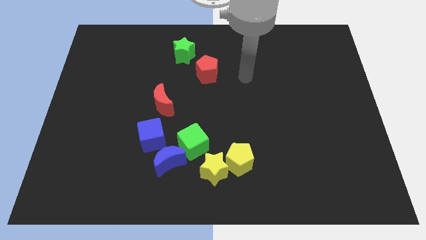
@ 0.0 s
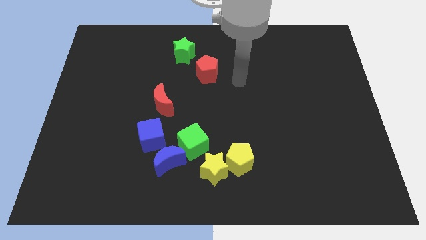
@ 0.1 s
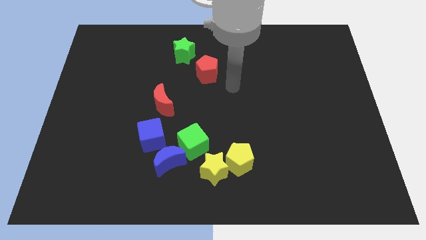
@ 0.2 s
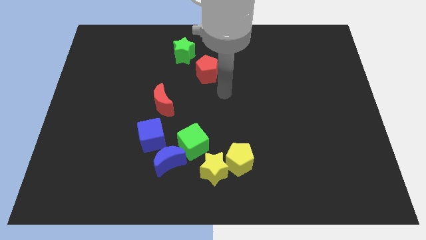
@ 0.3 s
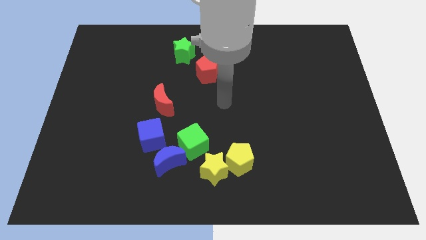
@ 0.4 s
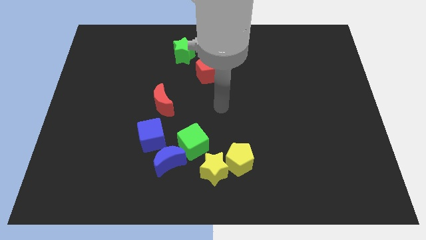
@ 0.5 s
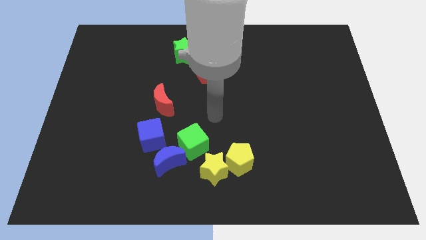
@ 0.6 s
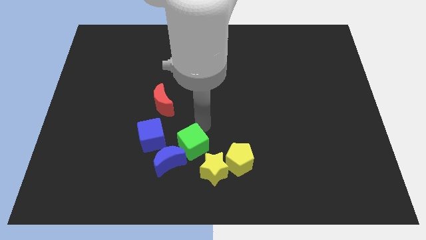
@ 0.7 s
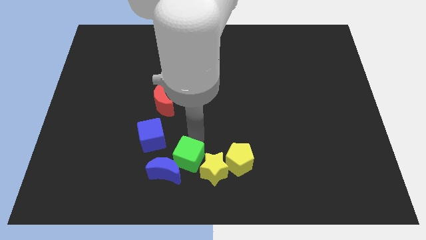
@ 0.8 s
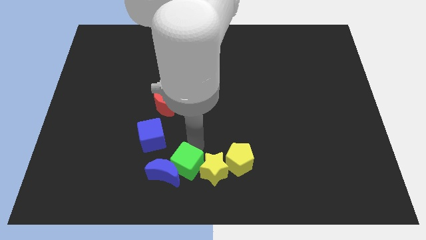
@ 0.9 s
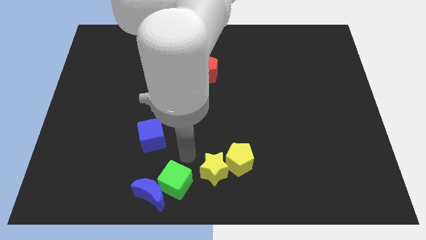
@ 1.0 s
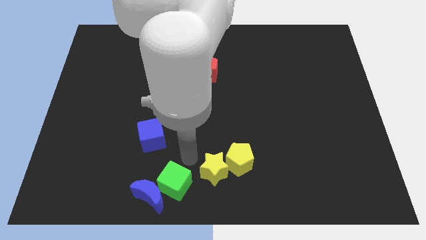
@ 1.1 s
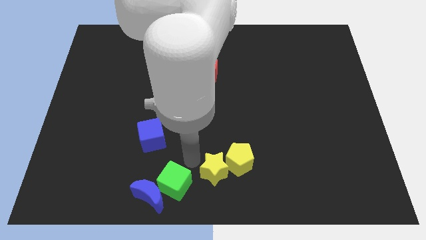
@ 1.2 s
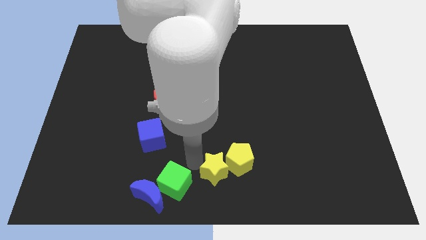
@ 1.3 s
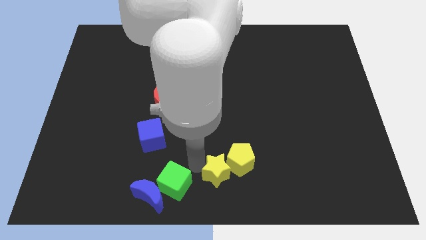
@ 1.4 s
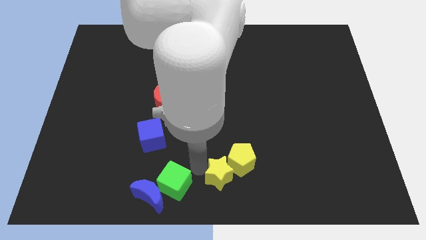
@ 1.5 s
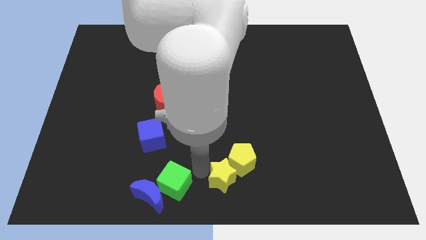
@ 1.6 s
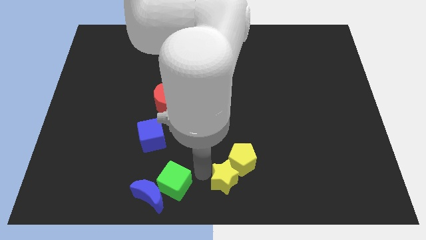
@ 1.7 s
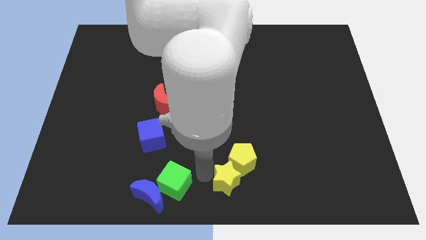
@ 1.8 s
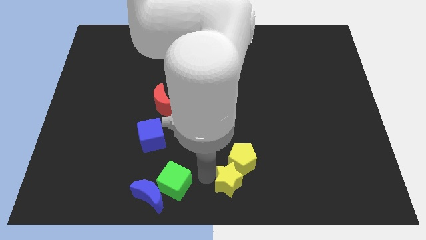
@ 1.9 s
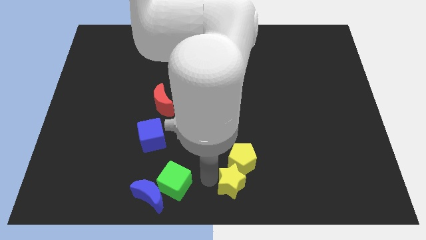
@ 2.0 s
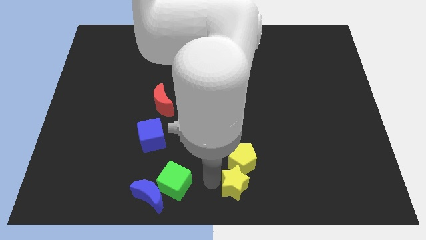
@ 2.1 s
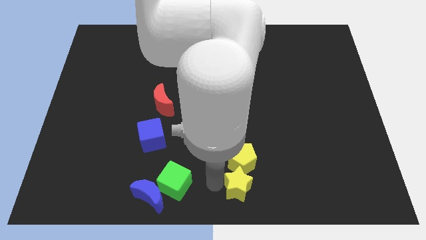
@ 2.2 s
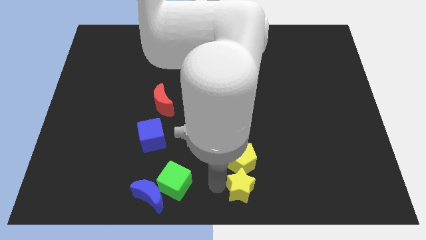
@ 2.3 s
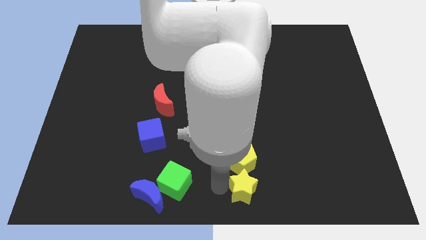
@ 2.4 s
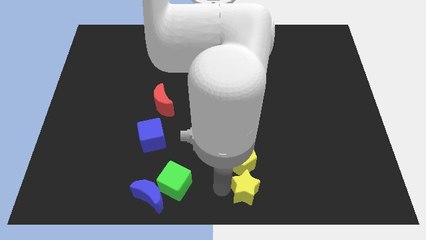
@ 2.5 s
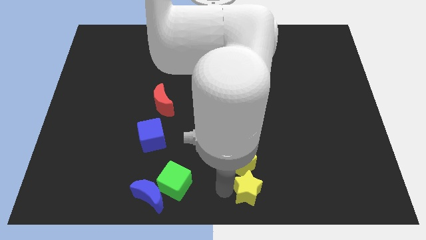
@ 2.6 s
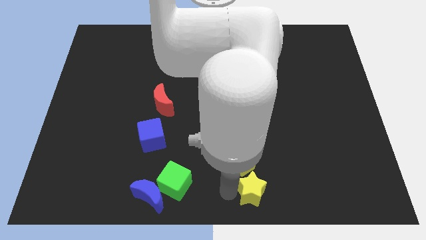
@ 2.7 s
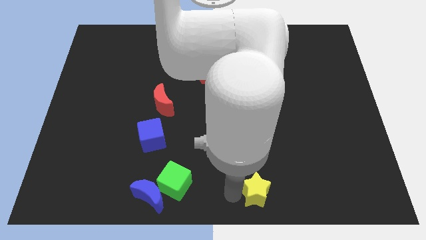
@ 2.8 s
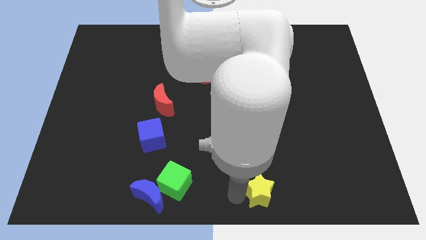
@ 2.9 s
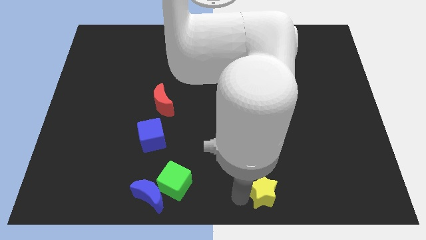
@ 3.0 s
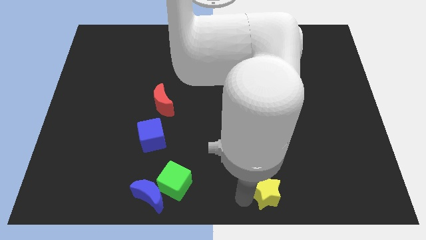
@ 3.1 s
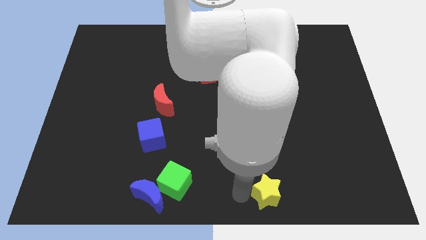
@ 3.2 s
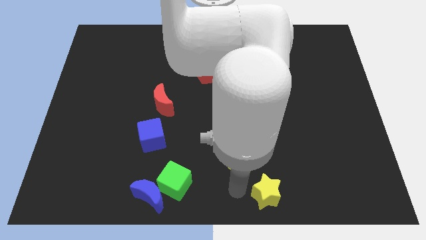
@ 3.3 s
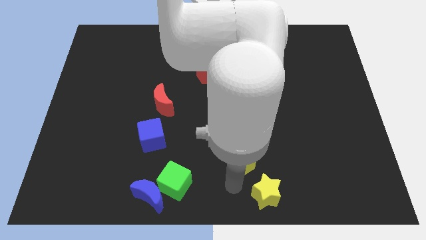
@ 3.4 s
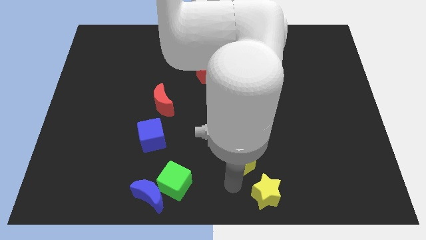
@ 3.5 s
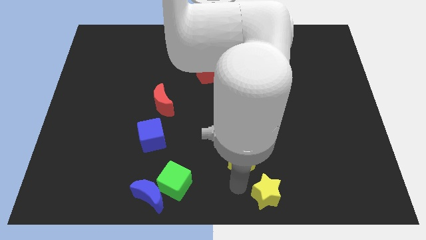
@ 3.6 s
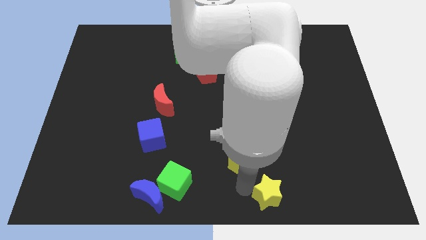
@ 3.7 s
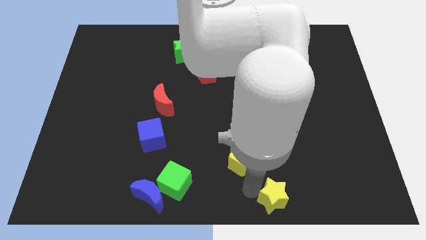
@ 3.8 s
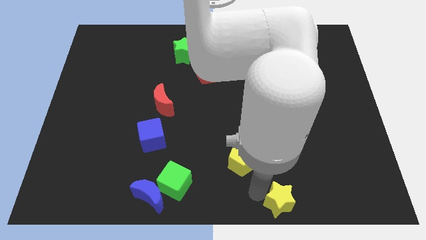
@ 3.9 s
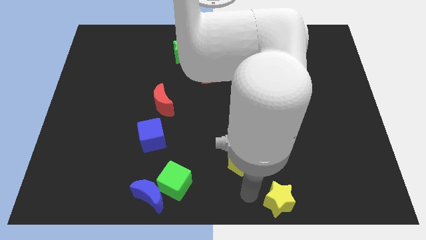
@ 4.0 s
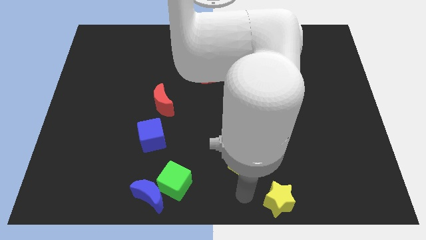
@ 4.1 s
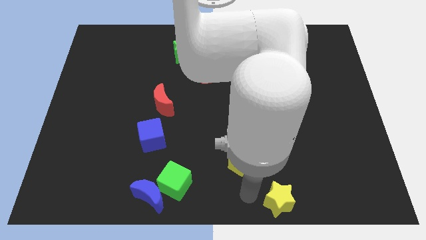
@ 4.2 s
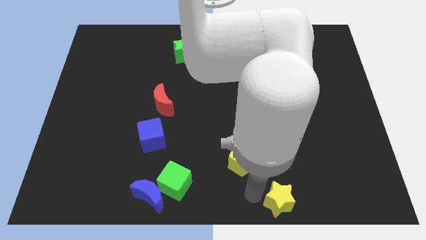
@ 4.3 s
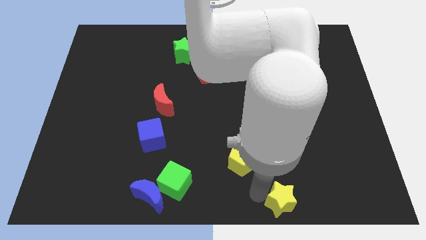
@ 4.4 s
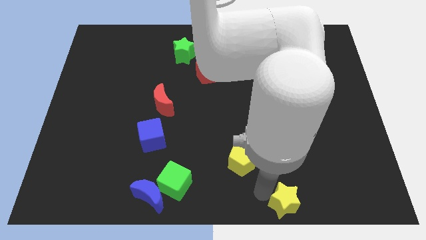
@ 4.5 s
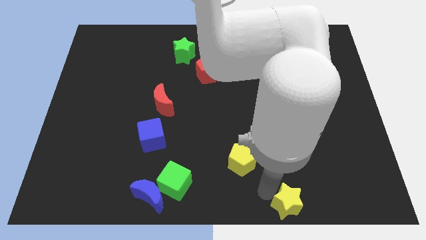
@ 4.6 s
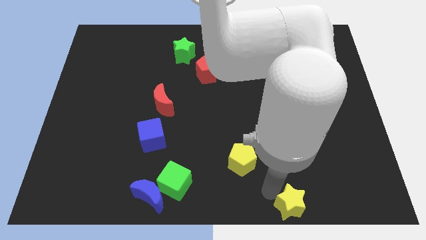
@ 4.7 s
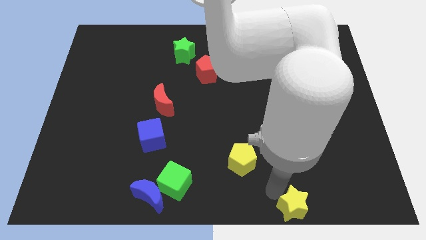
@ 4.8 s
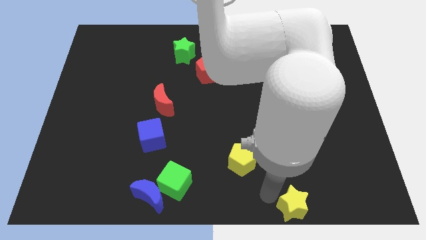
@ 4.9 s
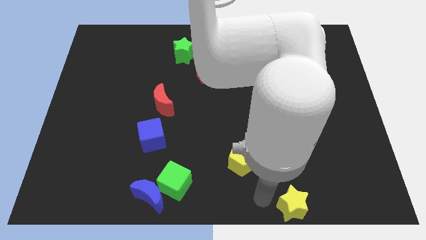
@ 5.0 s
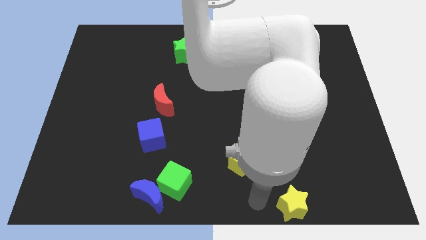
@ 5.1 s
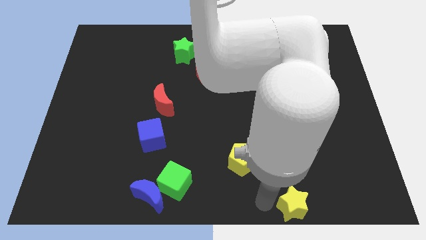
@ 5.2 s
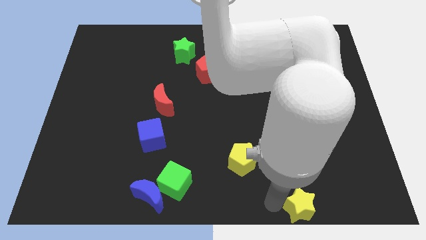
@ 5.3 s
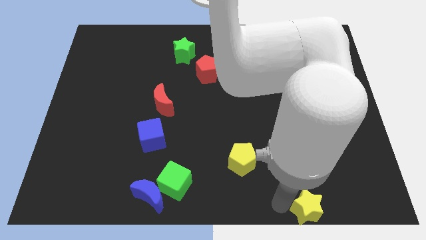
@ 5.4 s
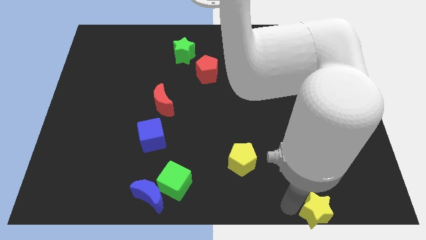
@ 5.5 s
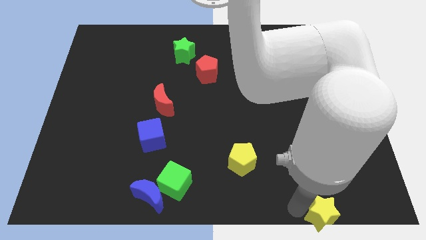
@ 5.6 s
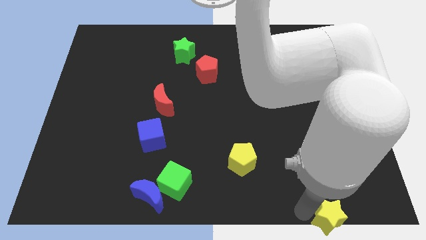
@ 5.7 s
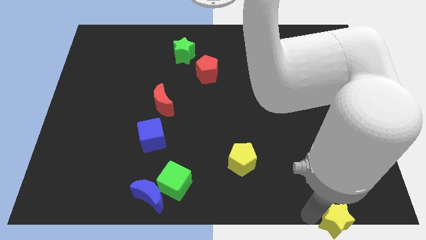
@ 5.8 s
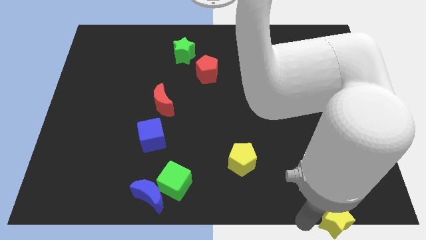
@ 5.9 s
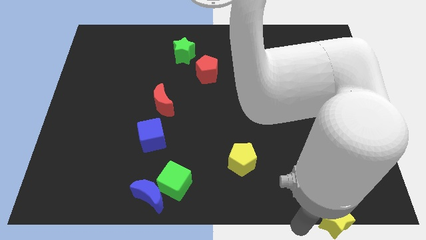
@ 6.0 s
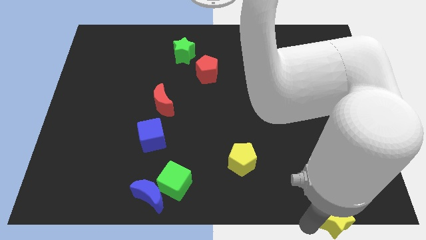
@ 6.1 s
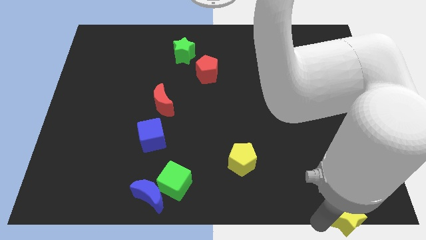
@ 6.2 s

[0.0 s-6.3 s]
move the yellow star to the bottom right corner

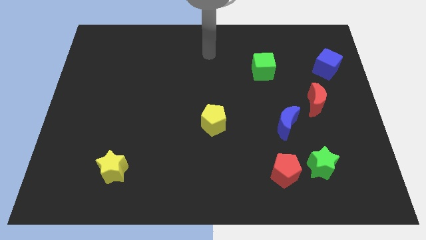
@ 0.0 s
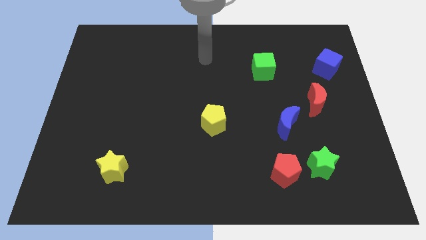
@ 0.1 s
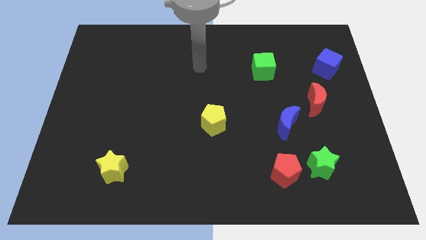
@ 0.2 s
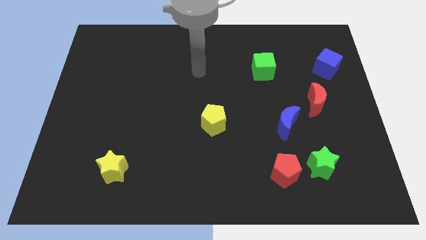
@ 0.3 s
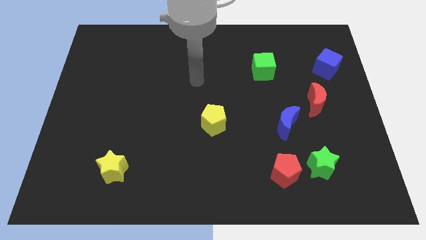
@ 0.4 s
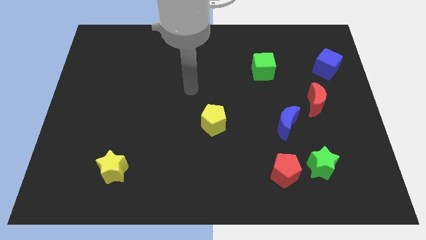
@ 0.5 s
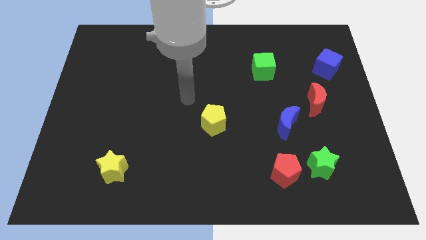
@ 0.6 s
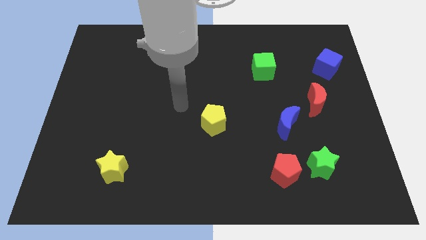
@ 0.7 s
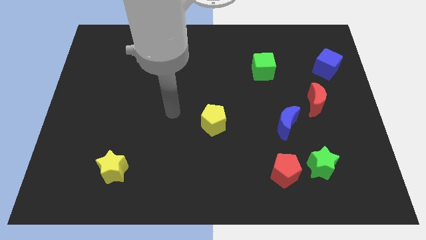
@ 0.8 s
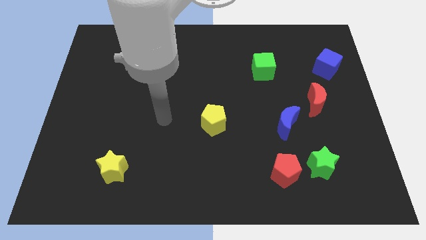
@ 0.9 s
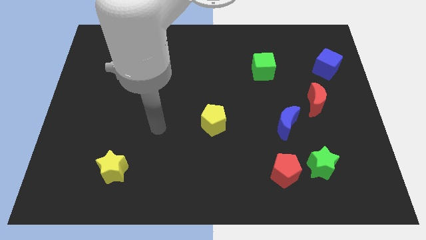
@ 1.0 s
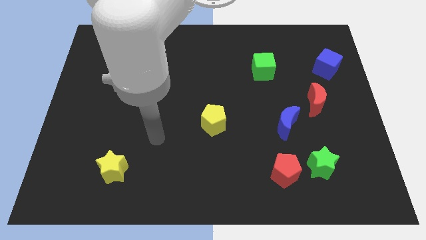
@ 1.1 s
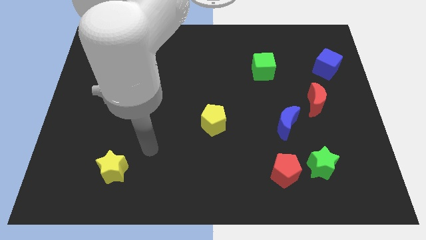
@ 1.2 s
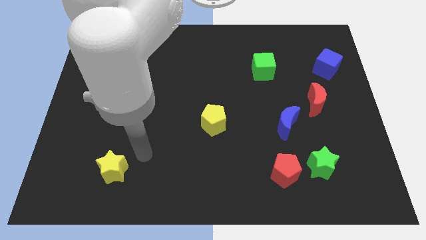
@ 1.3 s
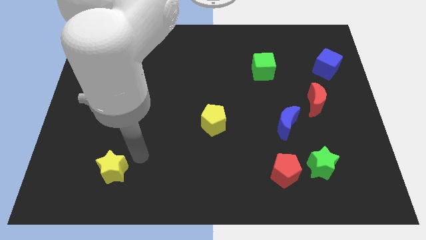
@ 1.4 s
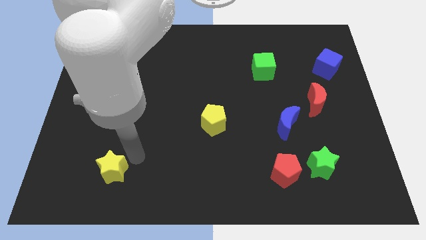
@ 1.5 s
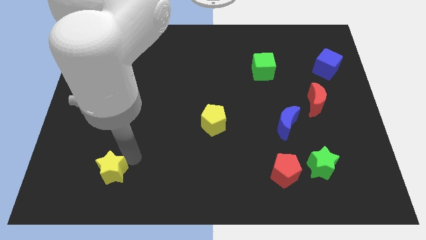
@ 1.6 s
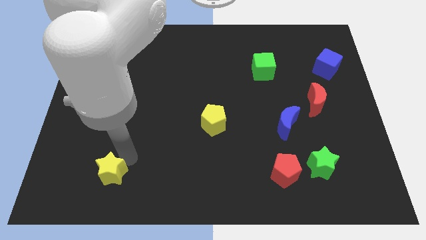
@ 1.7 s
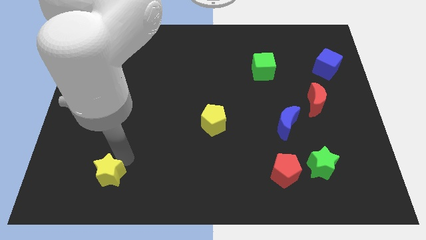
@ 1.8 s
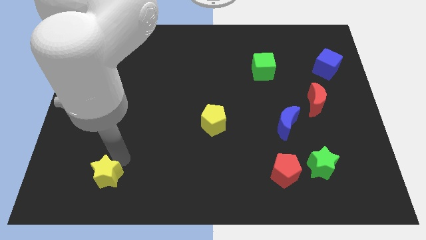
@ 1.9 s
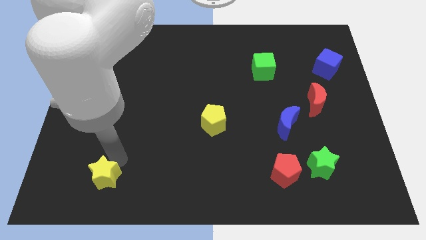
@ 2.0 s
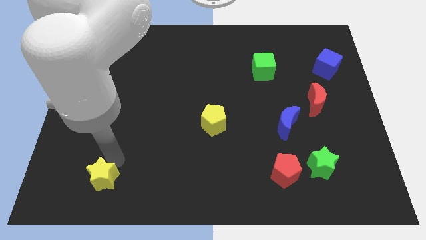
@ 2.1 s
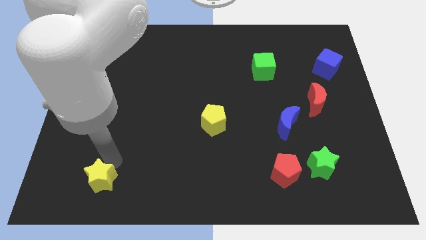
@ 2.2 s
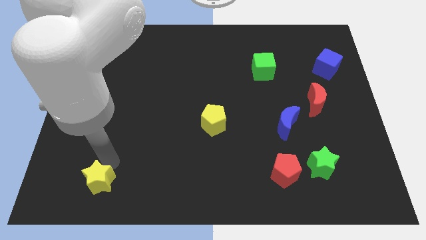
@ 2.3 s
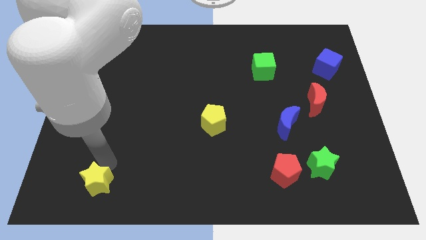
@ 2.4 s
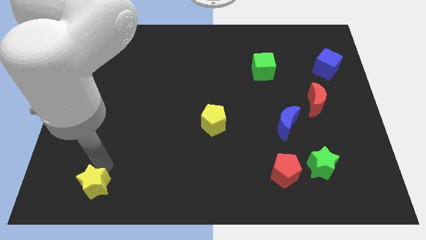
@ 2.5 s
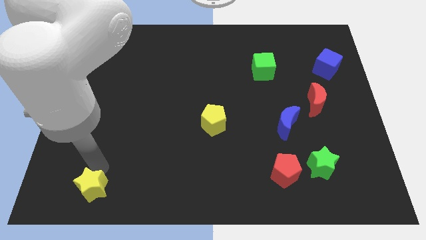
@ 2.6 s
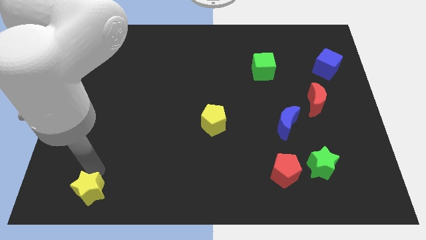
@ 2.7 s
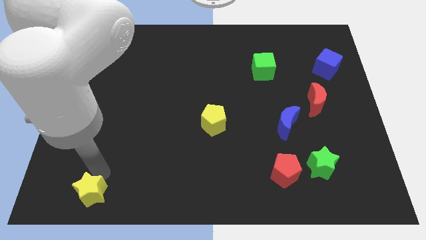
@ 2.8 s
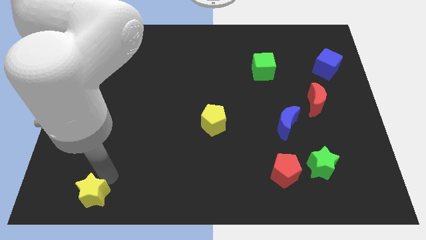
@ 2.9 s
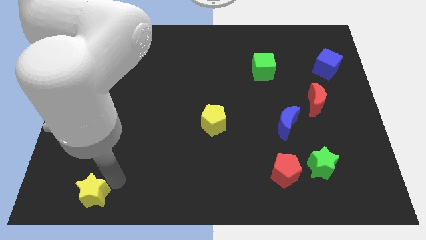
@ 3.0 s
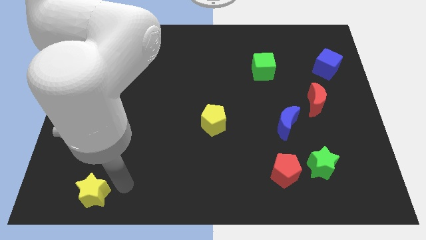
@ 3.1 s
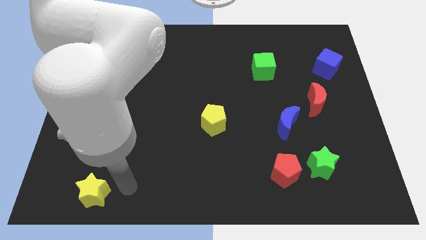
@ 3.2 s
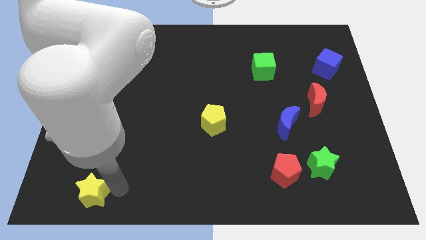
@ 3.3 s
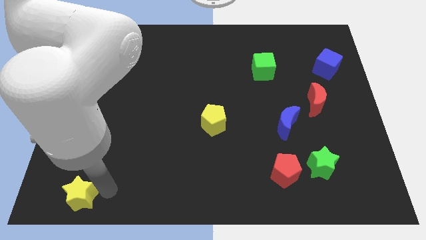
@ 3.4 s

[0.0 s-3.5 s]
push the yellow star to the bottom left of the board
